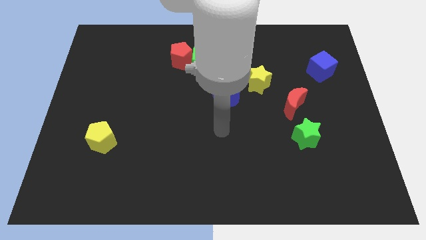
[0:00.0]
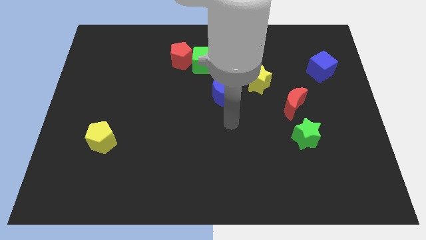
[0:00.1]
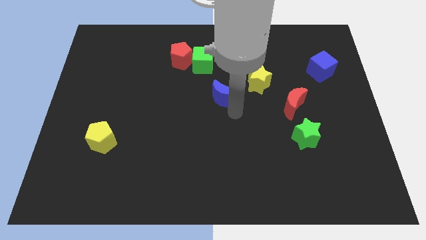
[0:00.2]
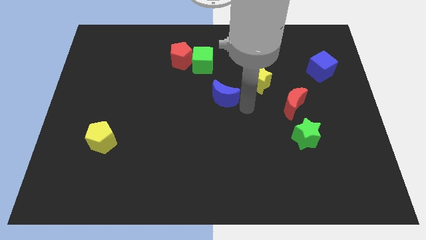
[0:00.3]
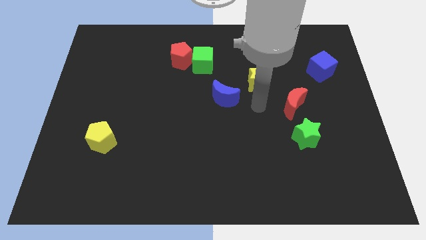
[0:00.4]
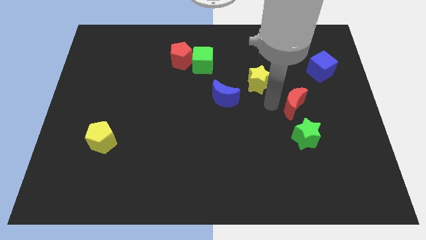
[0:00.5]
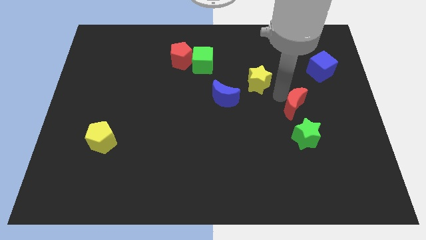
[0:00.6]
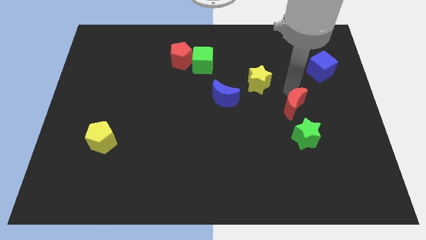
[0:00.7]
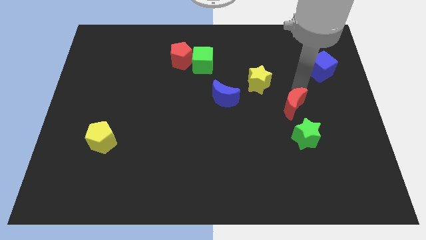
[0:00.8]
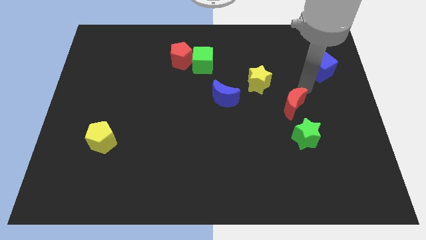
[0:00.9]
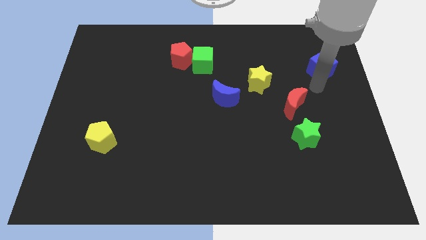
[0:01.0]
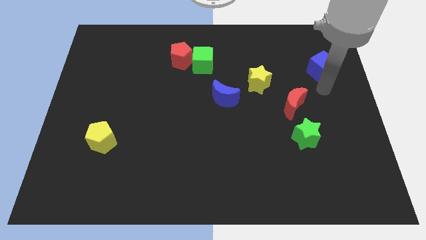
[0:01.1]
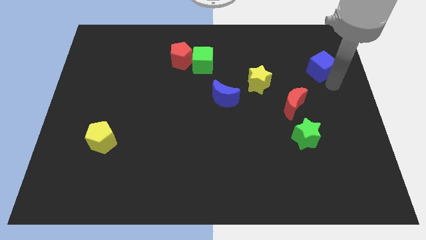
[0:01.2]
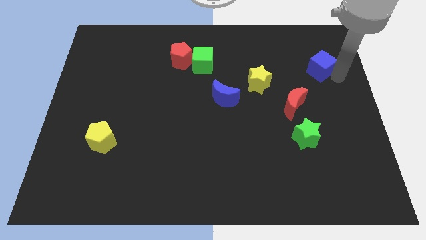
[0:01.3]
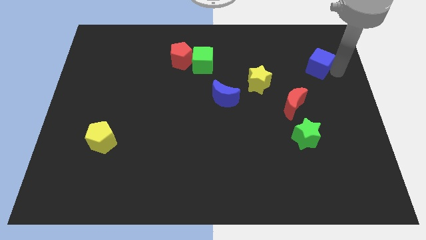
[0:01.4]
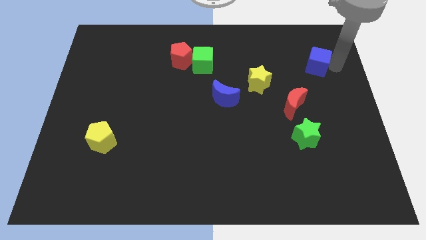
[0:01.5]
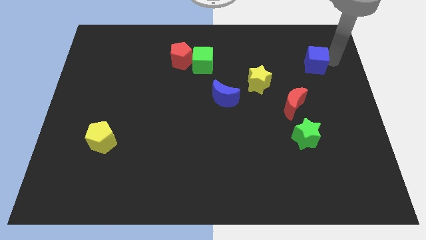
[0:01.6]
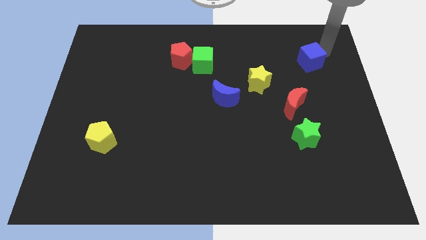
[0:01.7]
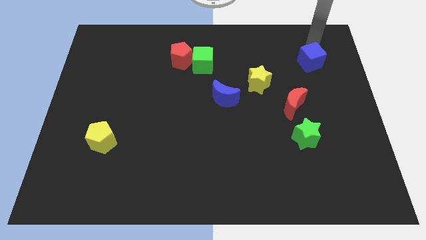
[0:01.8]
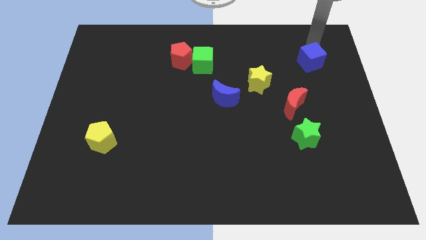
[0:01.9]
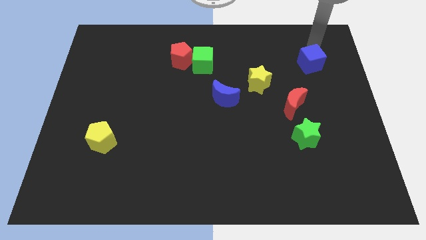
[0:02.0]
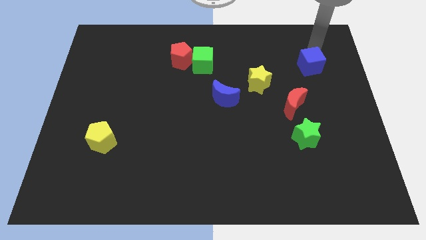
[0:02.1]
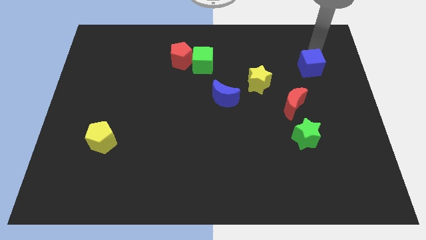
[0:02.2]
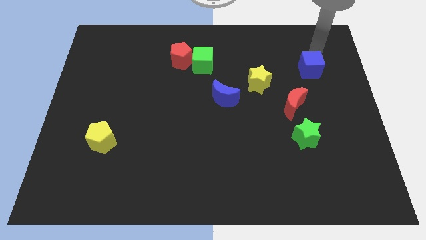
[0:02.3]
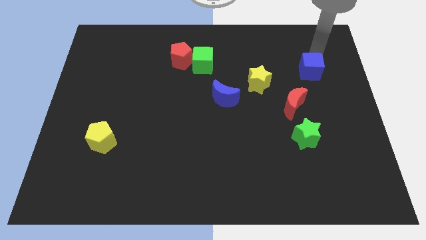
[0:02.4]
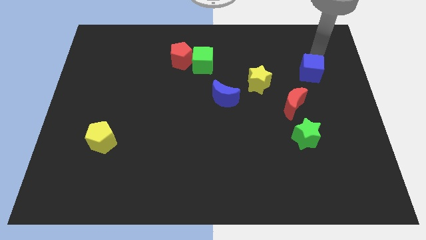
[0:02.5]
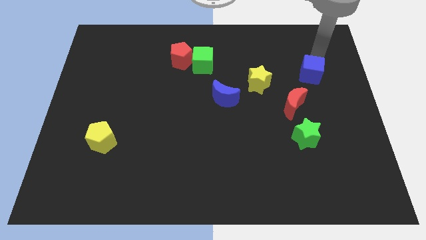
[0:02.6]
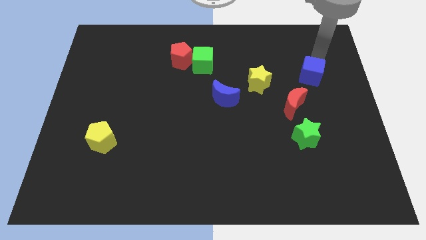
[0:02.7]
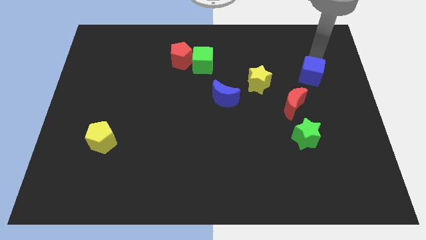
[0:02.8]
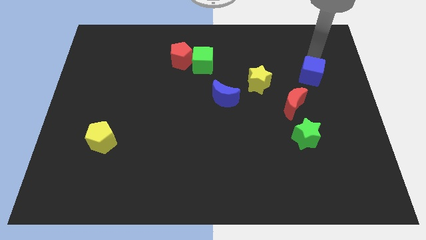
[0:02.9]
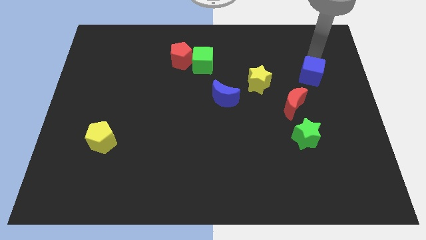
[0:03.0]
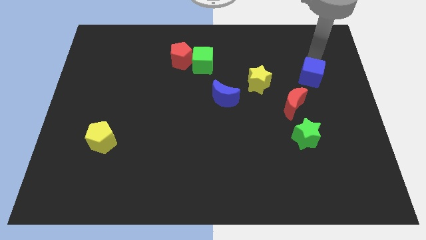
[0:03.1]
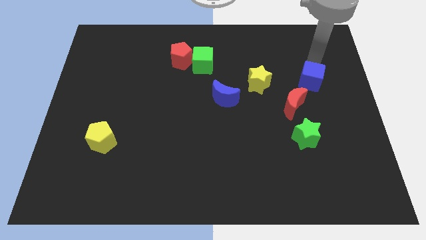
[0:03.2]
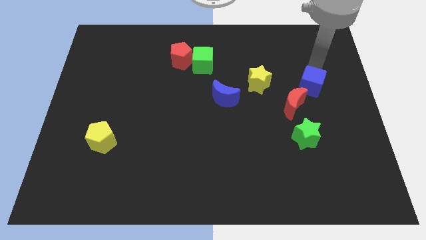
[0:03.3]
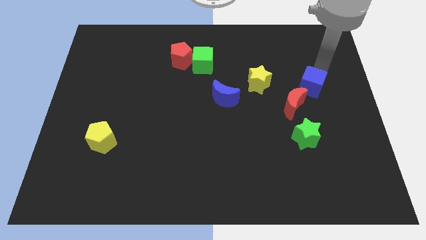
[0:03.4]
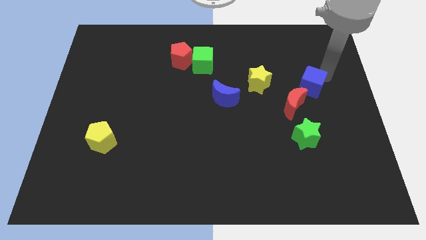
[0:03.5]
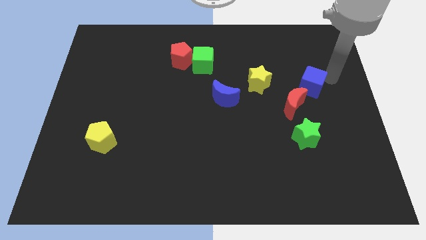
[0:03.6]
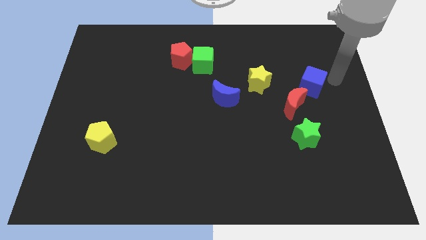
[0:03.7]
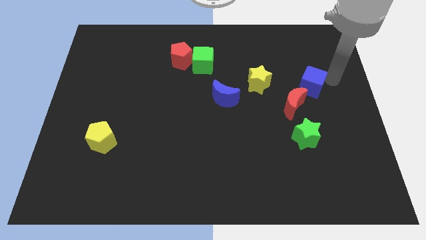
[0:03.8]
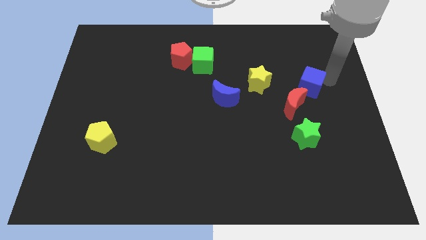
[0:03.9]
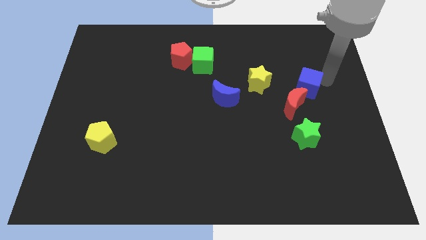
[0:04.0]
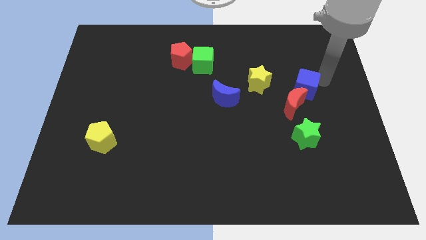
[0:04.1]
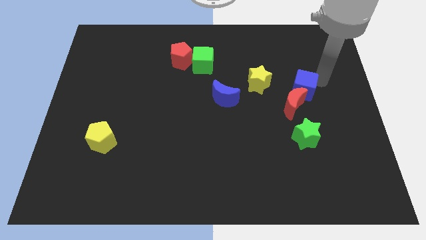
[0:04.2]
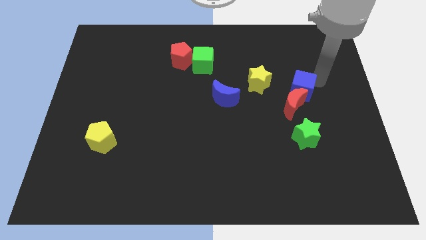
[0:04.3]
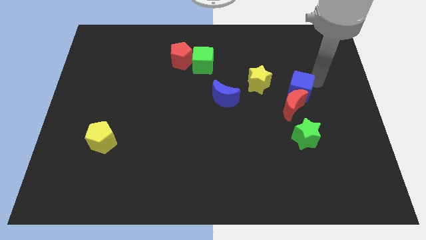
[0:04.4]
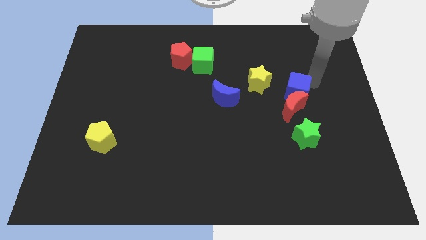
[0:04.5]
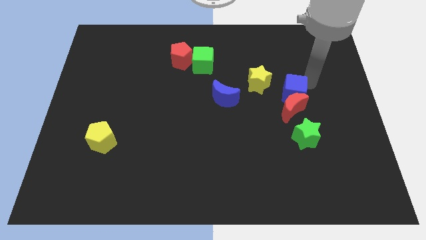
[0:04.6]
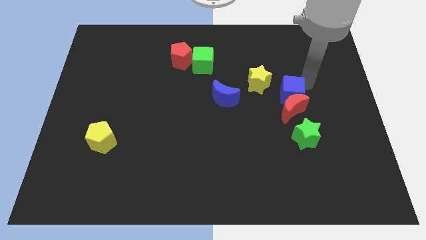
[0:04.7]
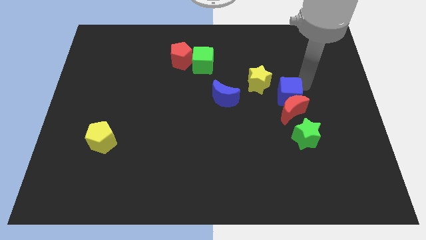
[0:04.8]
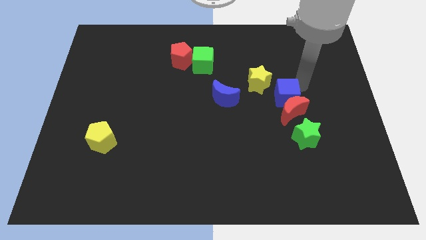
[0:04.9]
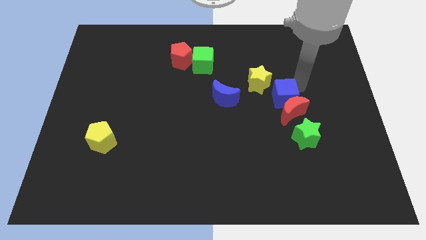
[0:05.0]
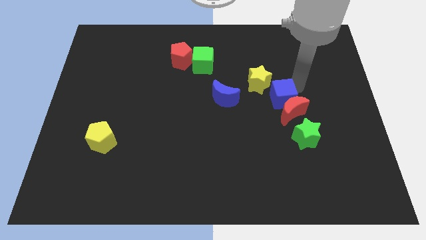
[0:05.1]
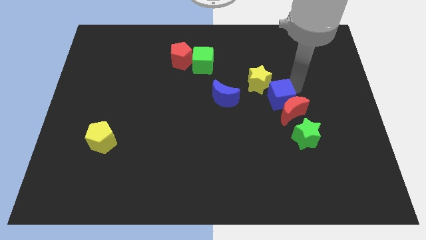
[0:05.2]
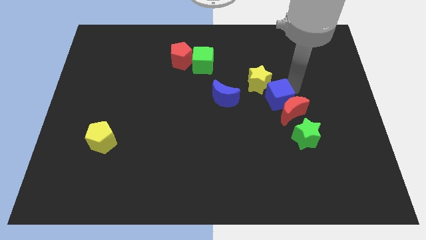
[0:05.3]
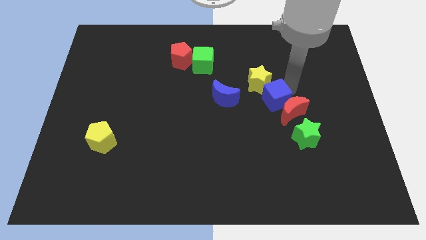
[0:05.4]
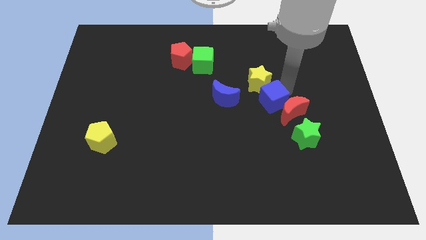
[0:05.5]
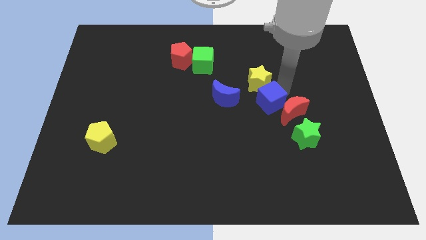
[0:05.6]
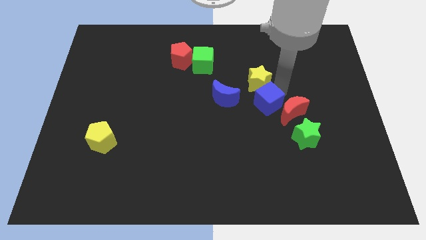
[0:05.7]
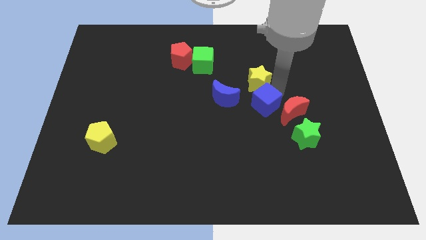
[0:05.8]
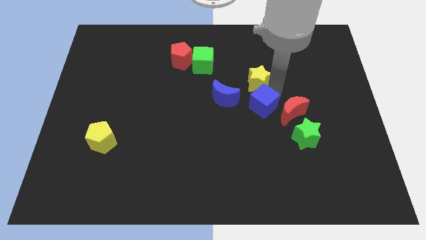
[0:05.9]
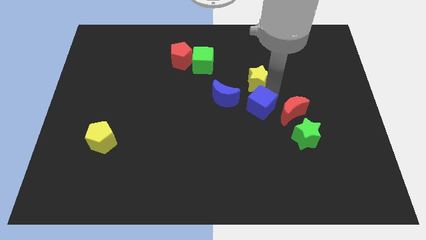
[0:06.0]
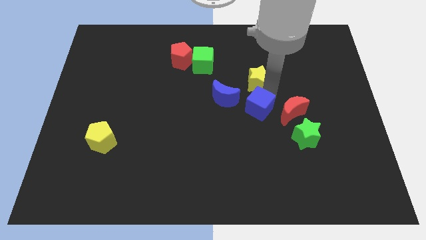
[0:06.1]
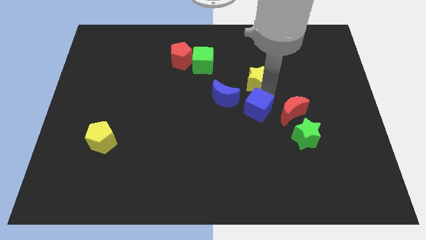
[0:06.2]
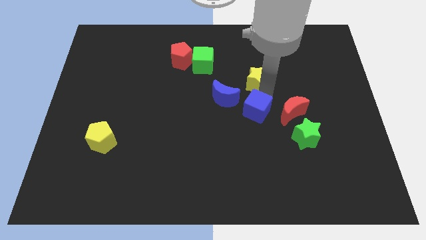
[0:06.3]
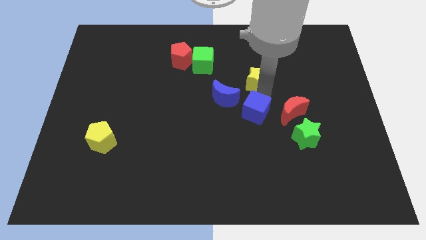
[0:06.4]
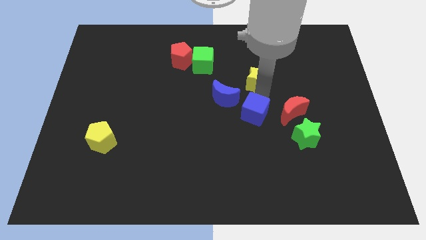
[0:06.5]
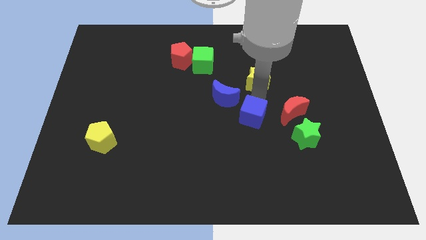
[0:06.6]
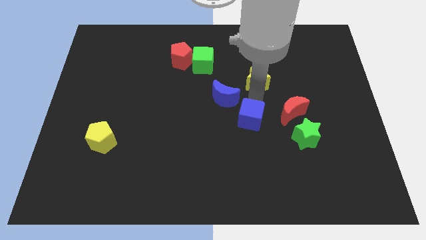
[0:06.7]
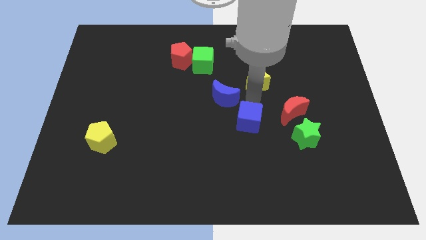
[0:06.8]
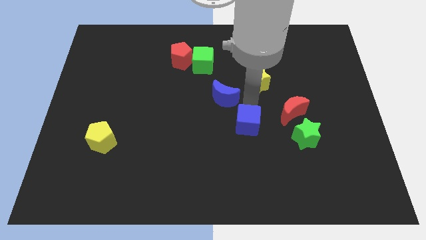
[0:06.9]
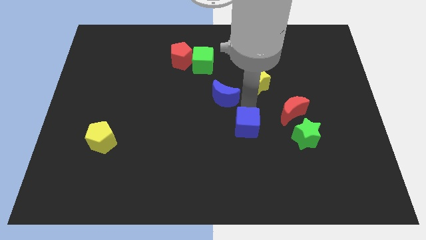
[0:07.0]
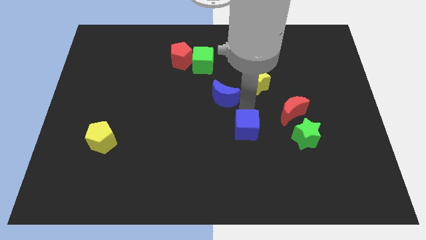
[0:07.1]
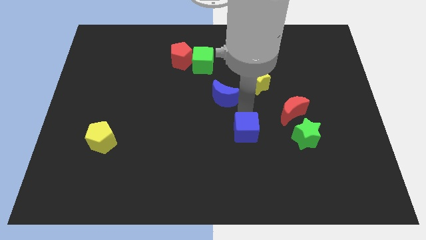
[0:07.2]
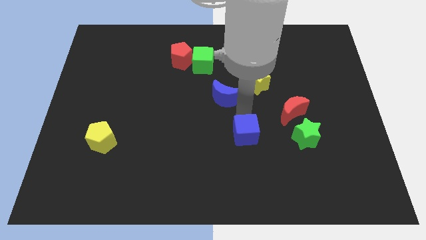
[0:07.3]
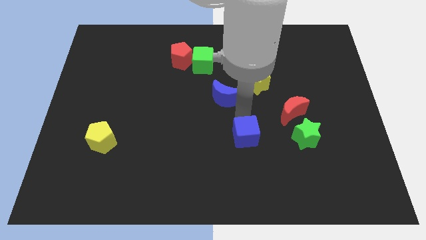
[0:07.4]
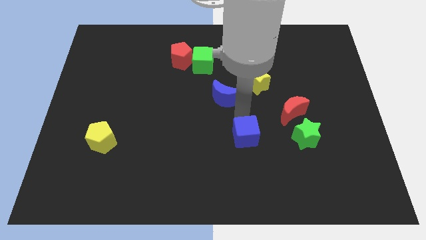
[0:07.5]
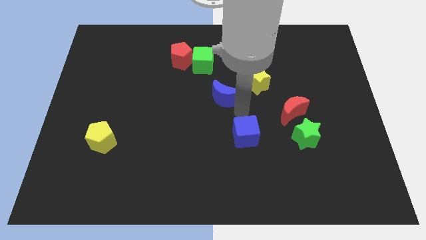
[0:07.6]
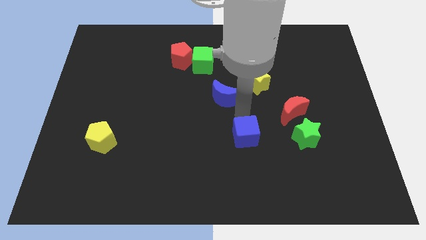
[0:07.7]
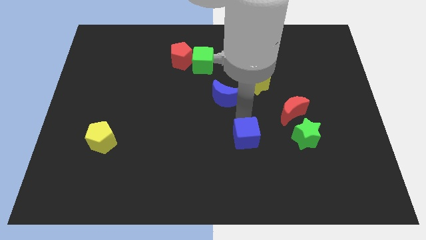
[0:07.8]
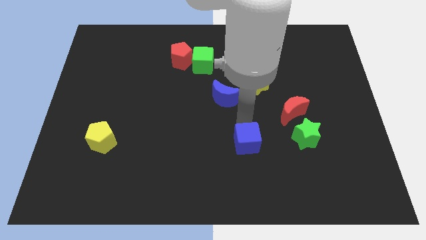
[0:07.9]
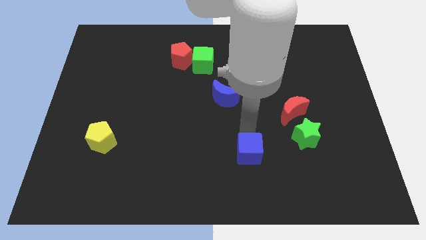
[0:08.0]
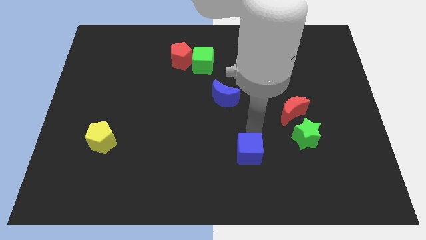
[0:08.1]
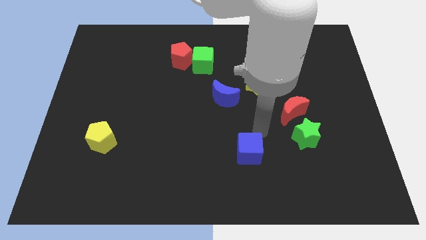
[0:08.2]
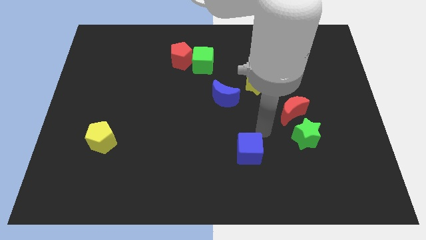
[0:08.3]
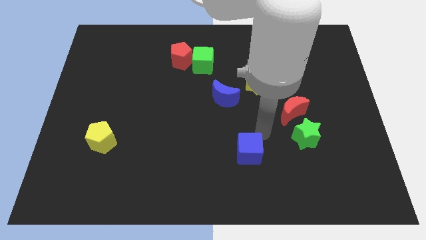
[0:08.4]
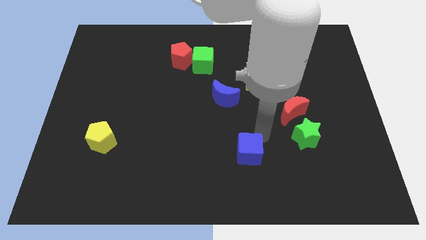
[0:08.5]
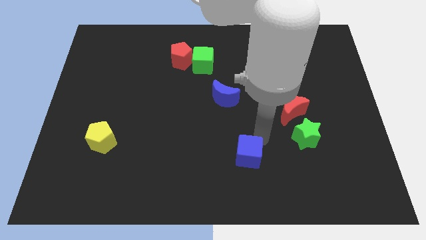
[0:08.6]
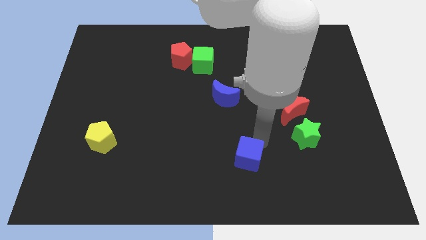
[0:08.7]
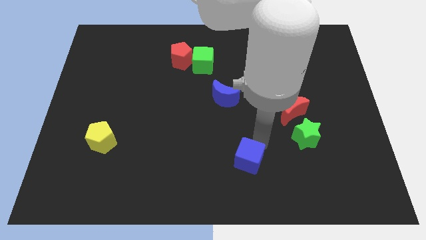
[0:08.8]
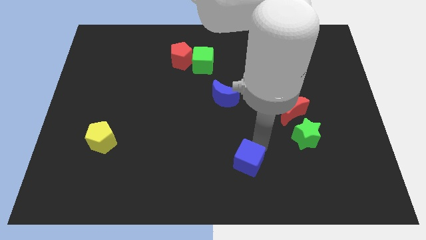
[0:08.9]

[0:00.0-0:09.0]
slide the blue cube to the bottom
